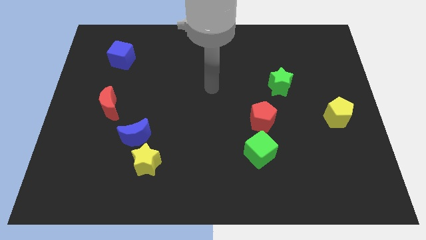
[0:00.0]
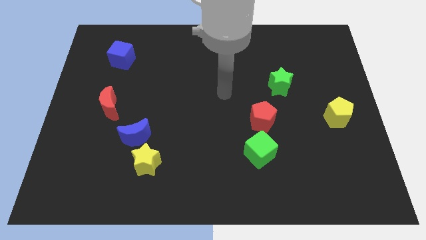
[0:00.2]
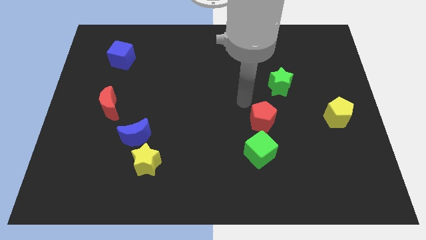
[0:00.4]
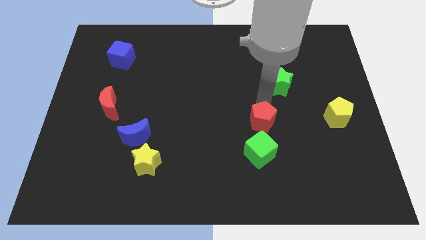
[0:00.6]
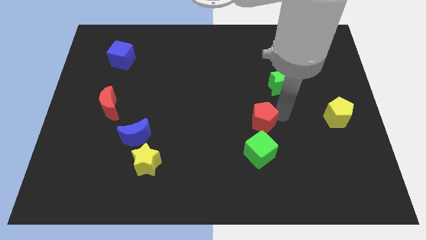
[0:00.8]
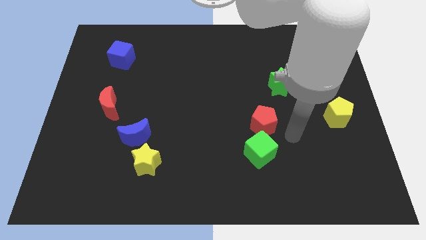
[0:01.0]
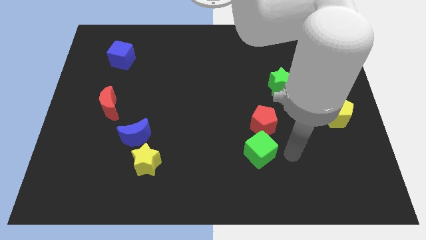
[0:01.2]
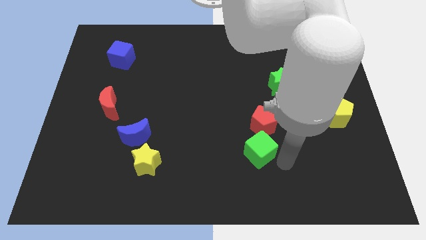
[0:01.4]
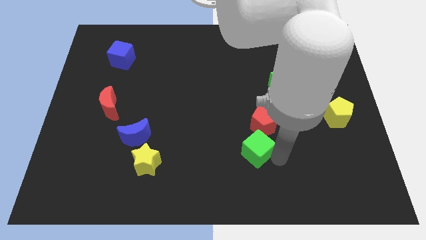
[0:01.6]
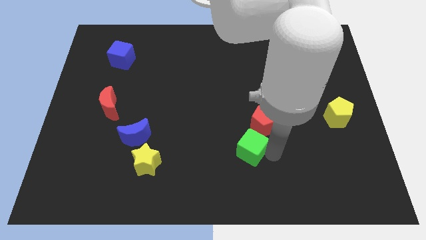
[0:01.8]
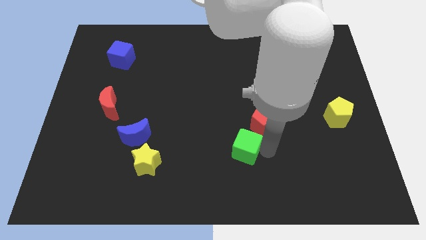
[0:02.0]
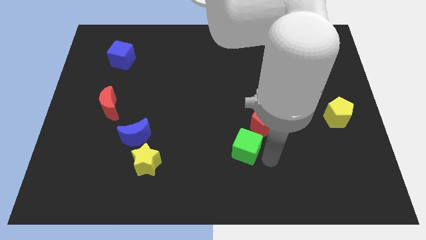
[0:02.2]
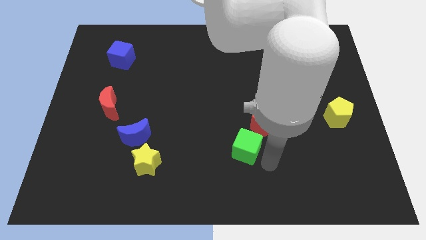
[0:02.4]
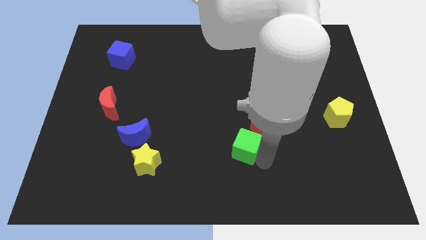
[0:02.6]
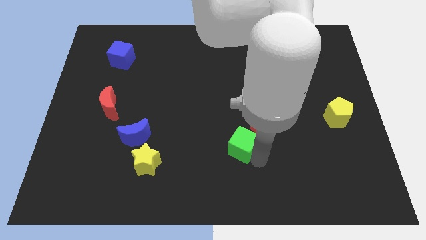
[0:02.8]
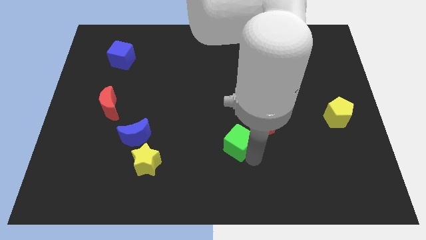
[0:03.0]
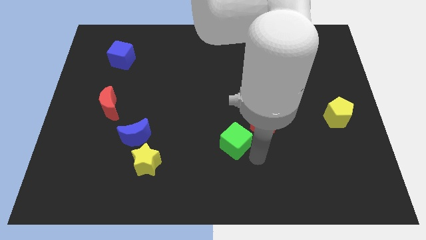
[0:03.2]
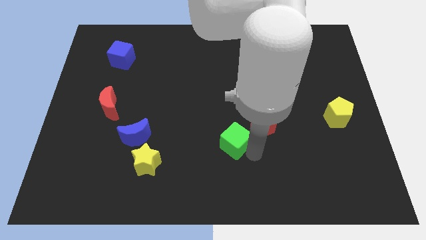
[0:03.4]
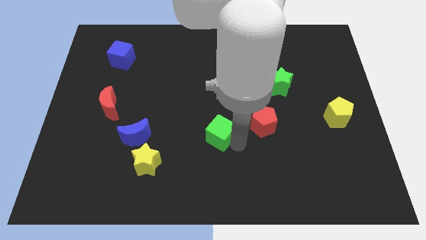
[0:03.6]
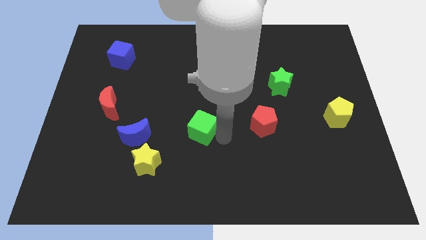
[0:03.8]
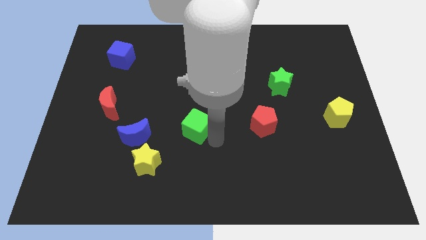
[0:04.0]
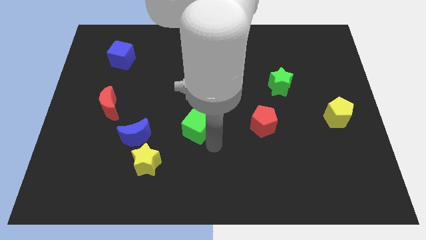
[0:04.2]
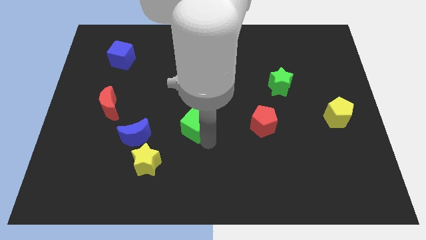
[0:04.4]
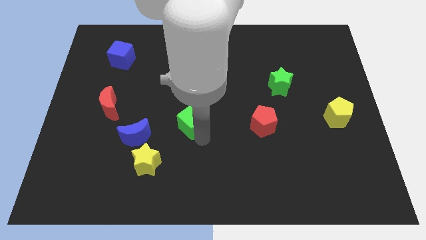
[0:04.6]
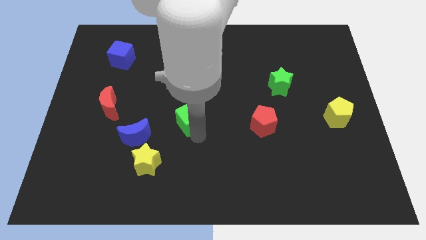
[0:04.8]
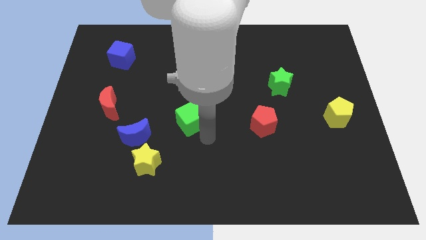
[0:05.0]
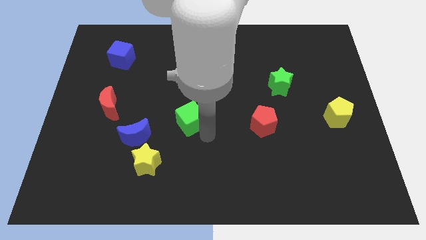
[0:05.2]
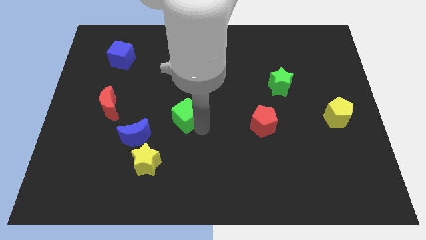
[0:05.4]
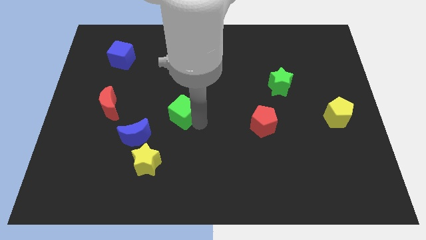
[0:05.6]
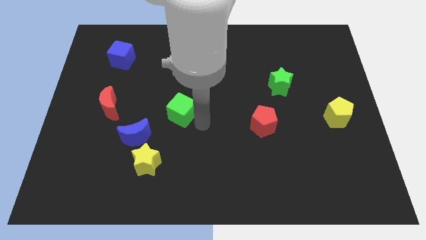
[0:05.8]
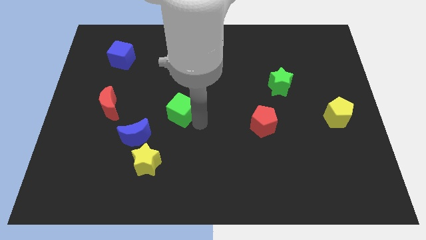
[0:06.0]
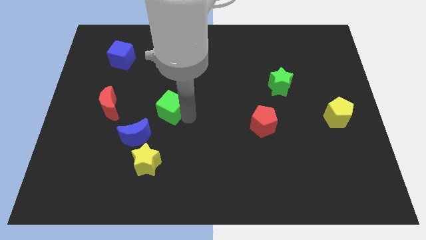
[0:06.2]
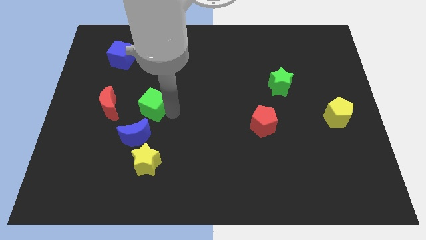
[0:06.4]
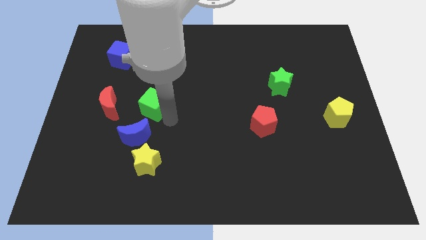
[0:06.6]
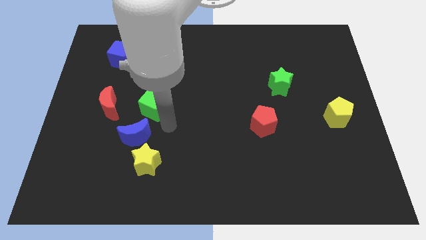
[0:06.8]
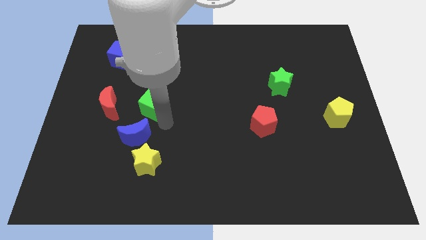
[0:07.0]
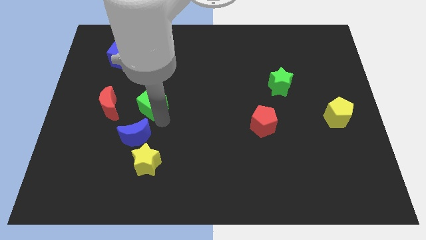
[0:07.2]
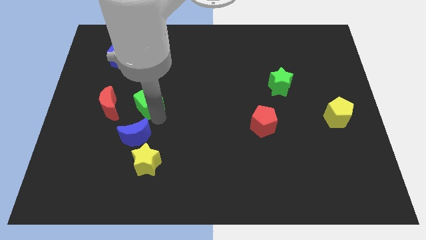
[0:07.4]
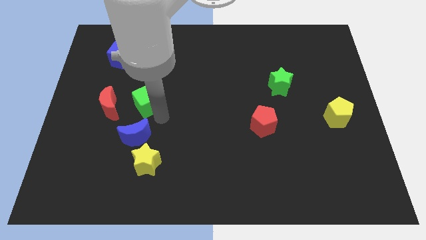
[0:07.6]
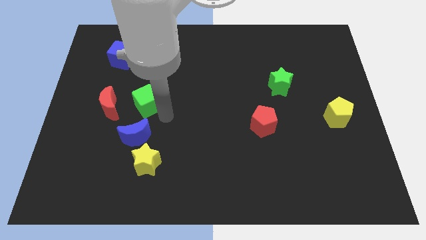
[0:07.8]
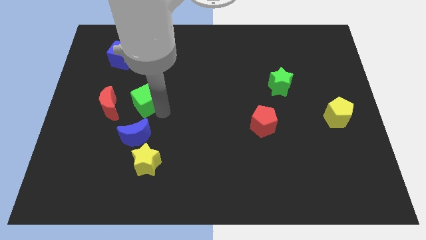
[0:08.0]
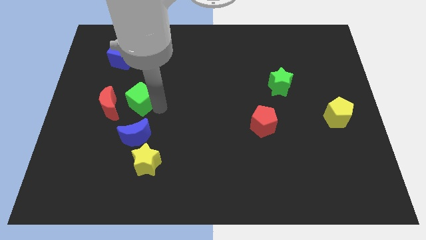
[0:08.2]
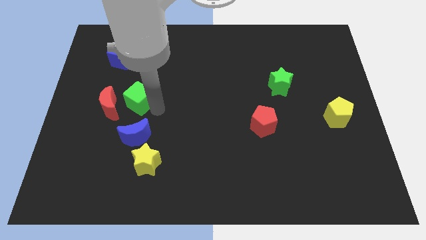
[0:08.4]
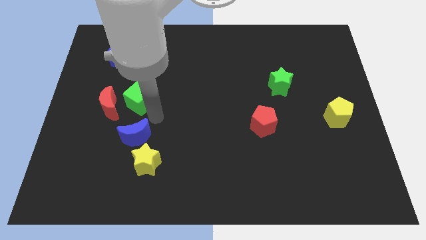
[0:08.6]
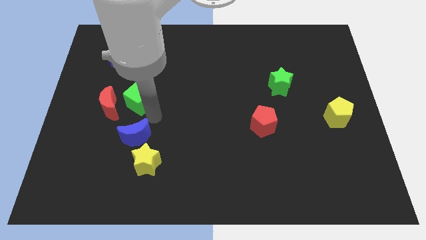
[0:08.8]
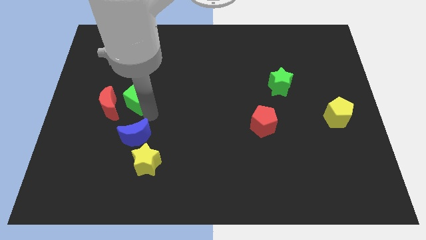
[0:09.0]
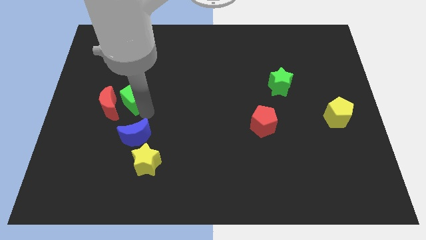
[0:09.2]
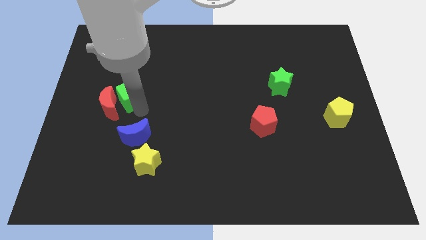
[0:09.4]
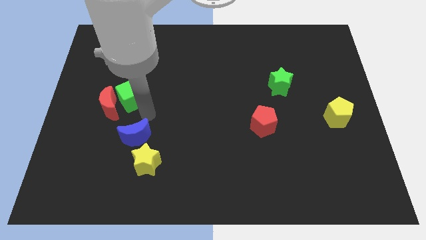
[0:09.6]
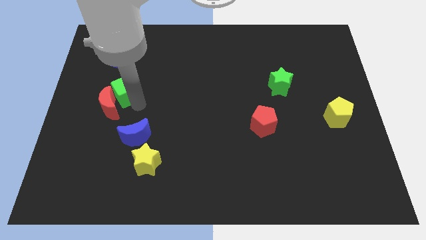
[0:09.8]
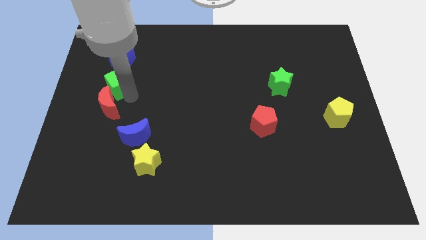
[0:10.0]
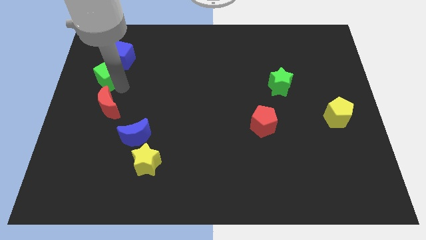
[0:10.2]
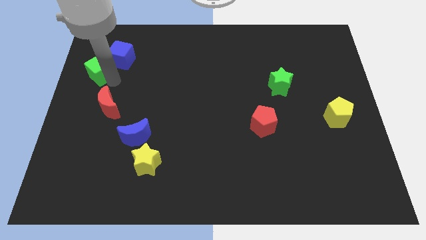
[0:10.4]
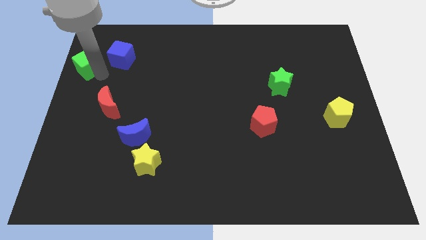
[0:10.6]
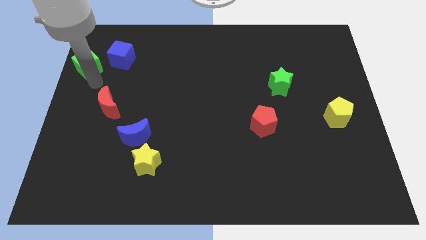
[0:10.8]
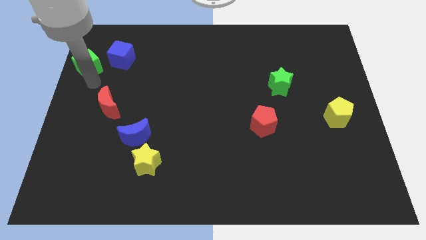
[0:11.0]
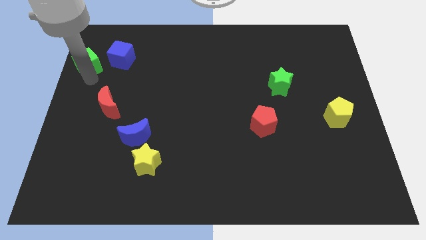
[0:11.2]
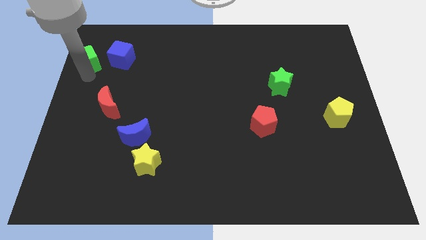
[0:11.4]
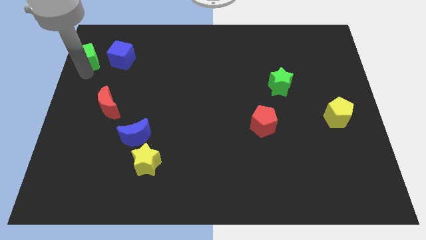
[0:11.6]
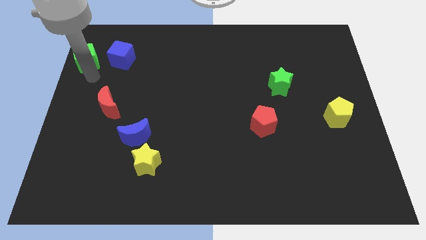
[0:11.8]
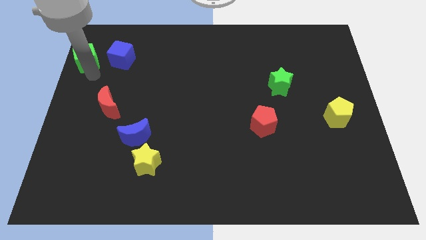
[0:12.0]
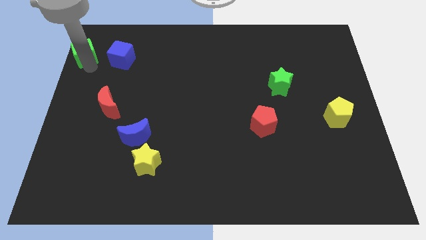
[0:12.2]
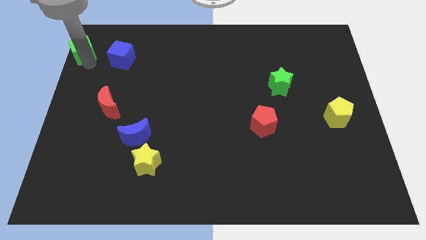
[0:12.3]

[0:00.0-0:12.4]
put the green cube to the upper left corner
